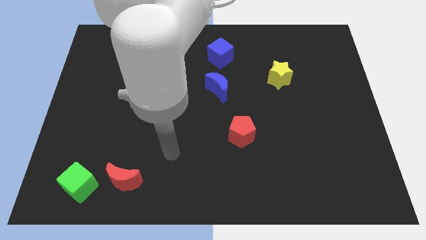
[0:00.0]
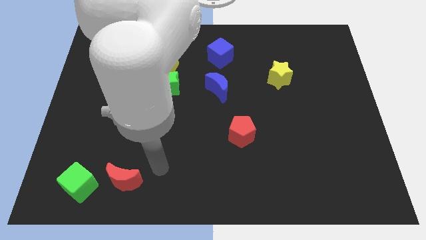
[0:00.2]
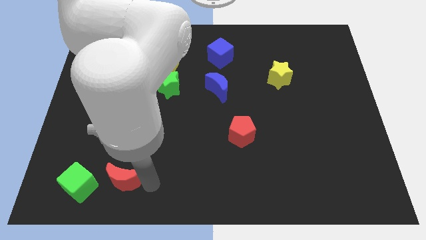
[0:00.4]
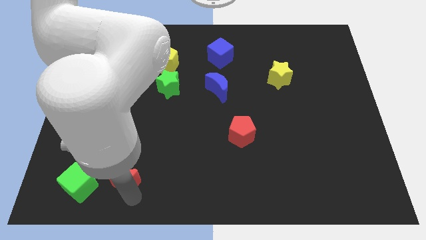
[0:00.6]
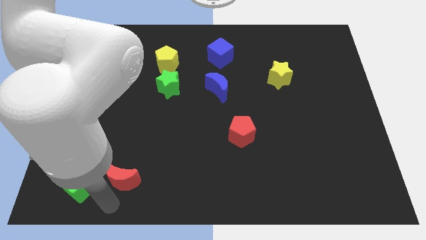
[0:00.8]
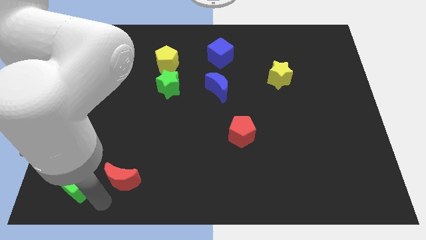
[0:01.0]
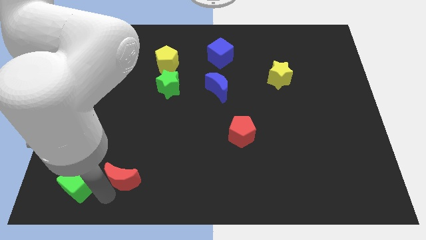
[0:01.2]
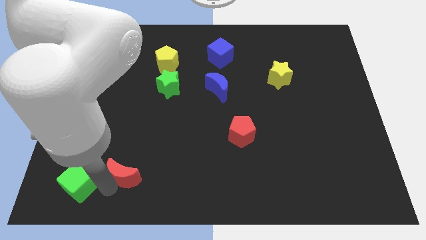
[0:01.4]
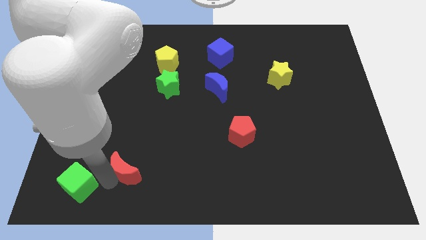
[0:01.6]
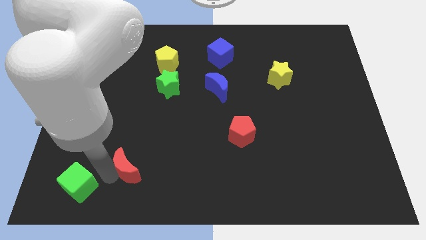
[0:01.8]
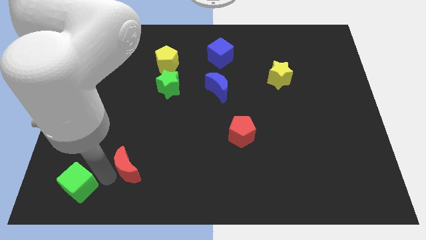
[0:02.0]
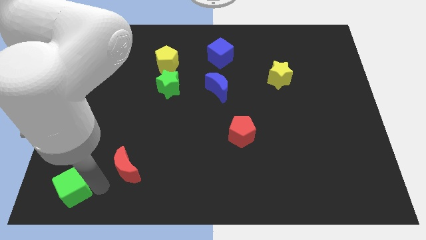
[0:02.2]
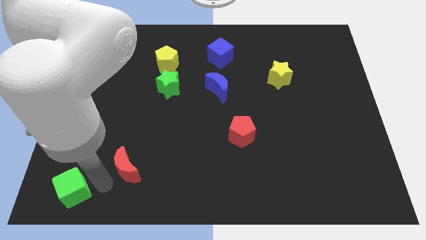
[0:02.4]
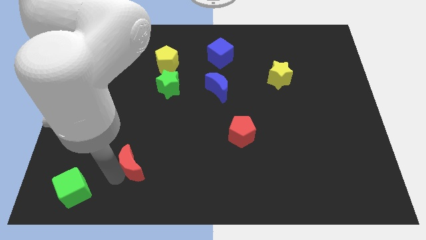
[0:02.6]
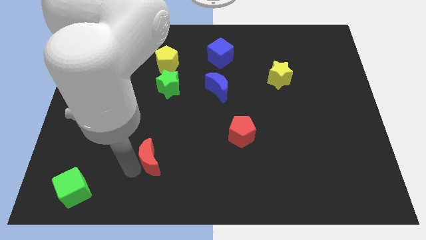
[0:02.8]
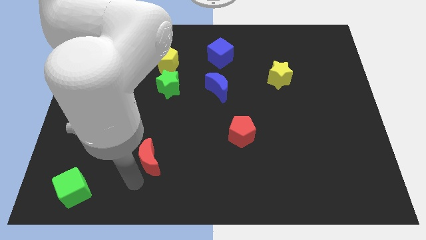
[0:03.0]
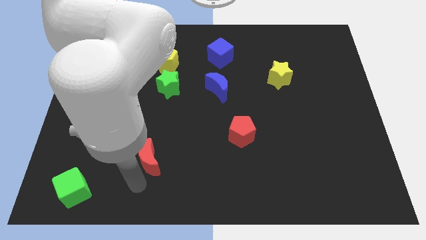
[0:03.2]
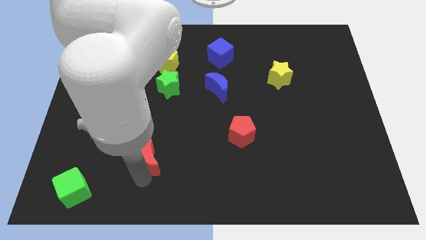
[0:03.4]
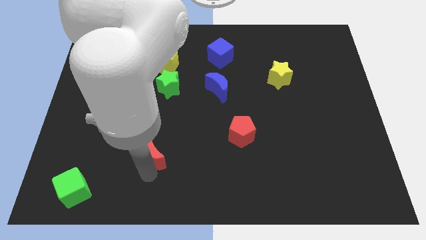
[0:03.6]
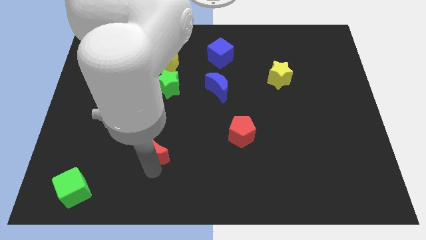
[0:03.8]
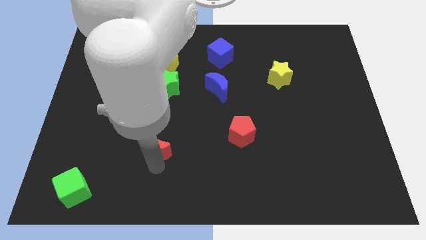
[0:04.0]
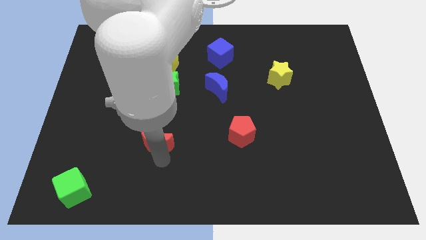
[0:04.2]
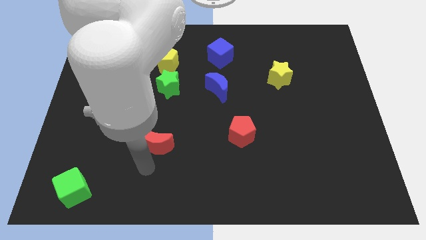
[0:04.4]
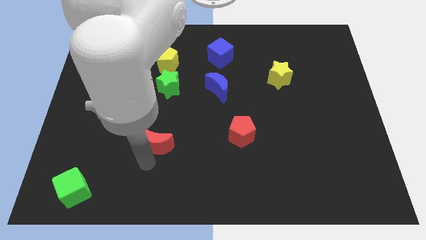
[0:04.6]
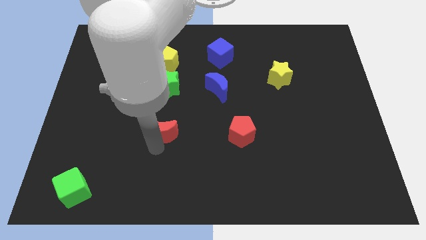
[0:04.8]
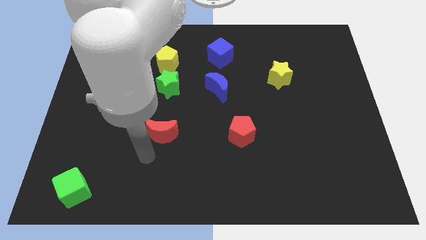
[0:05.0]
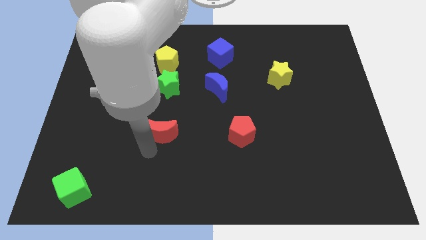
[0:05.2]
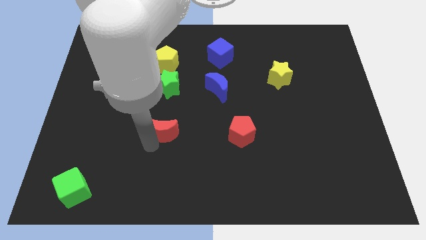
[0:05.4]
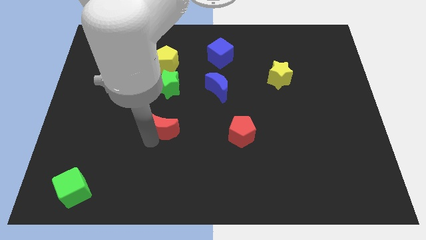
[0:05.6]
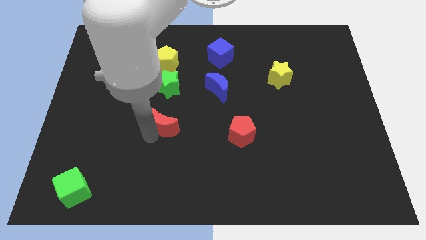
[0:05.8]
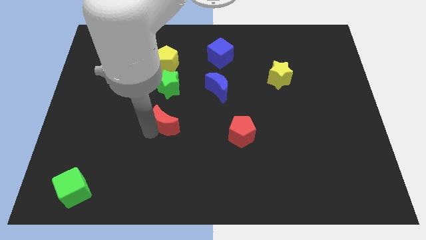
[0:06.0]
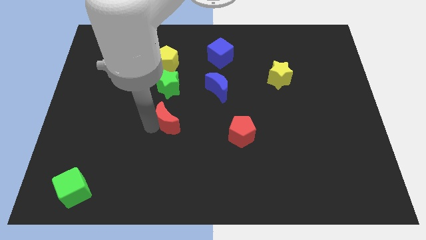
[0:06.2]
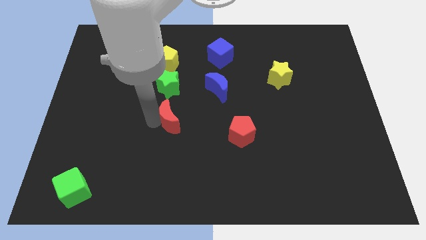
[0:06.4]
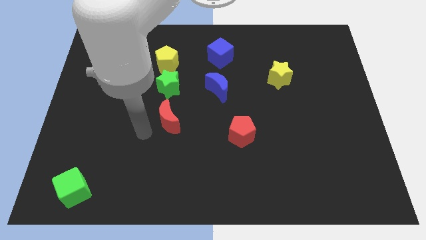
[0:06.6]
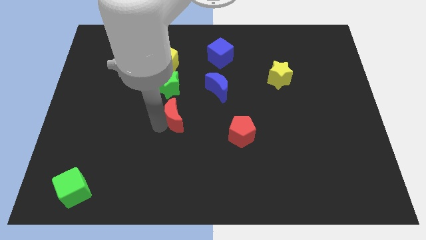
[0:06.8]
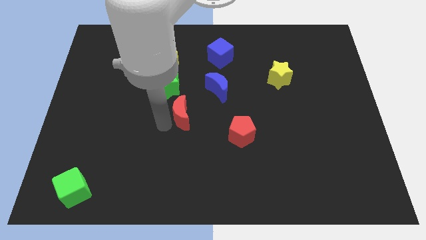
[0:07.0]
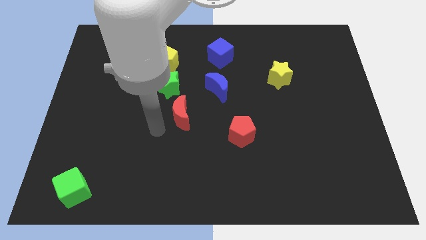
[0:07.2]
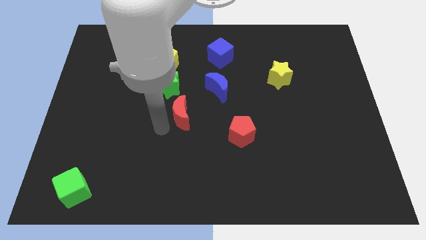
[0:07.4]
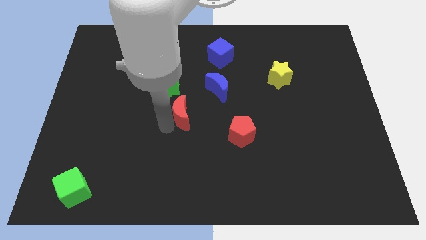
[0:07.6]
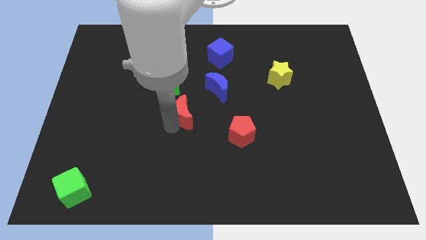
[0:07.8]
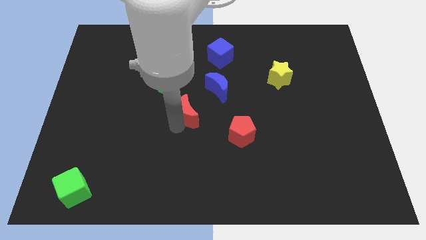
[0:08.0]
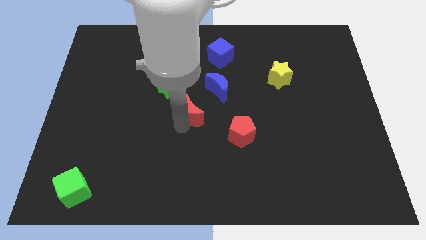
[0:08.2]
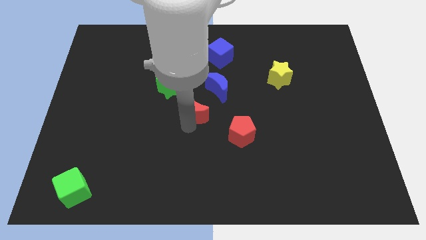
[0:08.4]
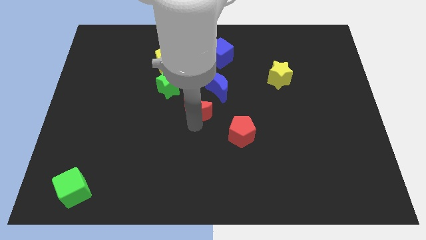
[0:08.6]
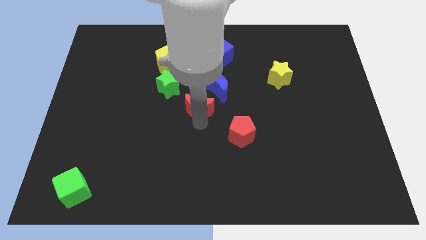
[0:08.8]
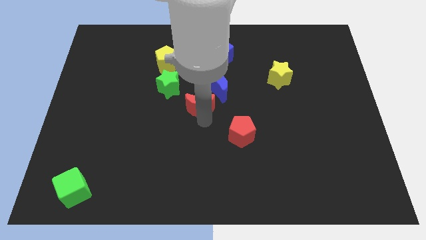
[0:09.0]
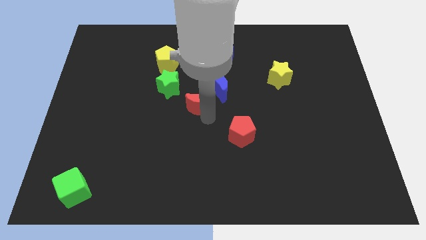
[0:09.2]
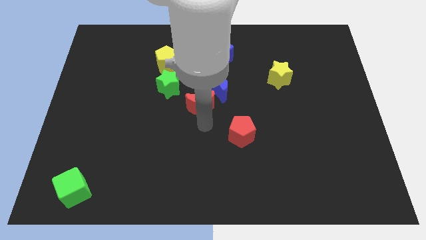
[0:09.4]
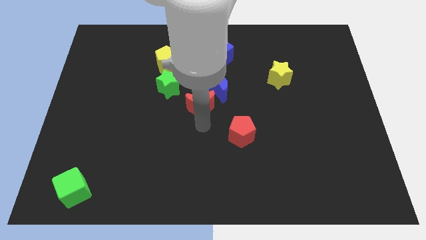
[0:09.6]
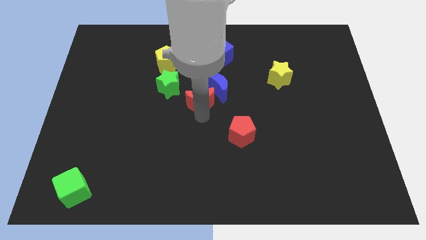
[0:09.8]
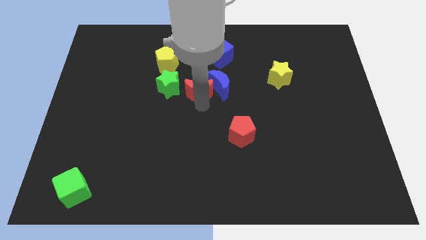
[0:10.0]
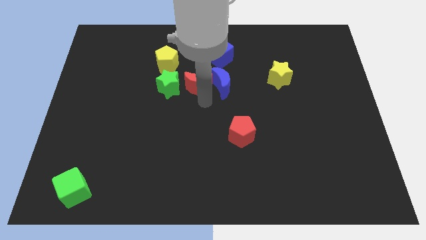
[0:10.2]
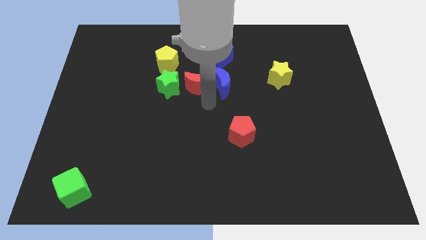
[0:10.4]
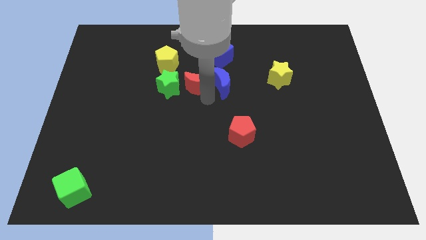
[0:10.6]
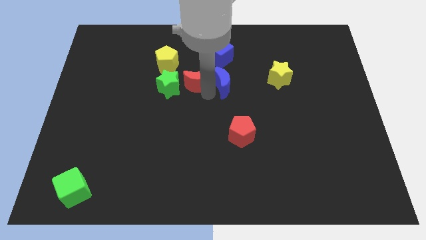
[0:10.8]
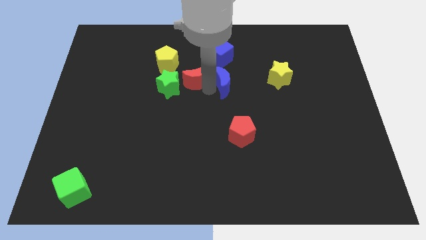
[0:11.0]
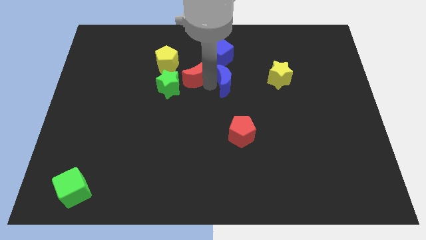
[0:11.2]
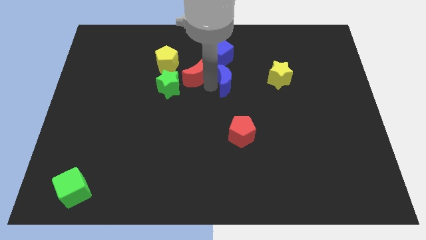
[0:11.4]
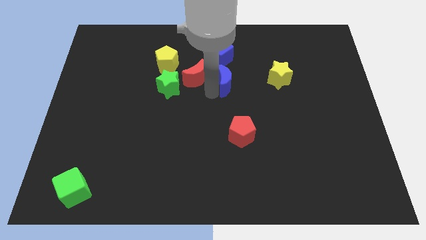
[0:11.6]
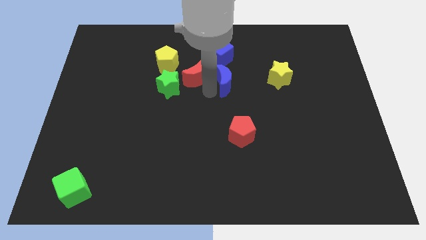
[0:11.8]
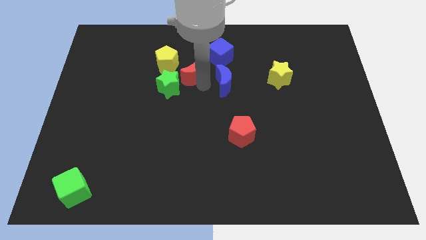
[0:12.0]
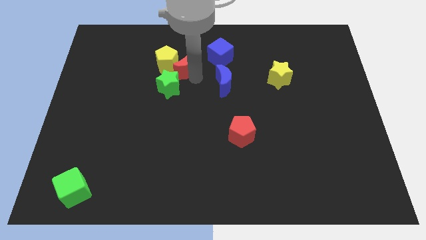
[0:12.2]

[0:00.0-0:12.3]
put the red moon to the left side of the blue cube

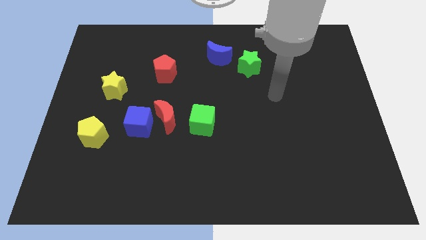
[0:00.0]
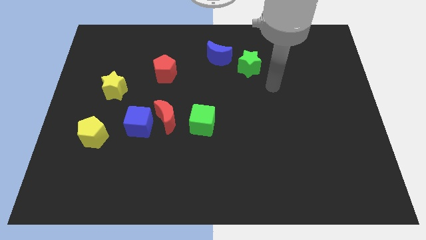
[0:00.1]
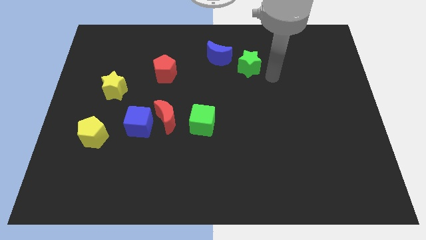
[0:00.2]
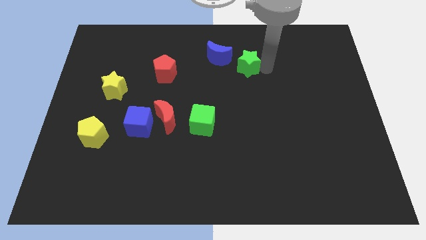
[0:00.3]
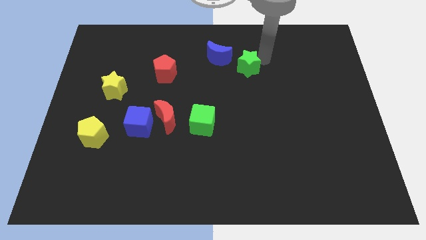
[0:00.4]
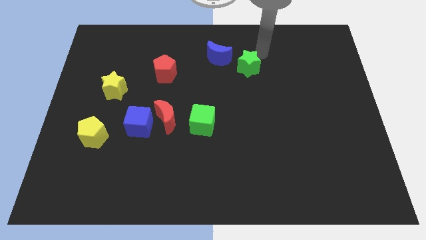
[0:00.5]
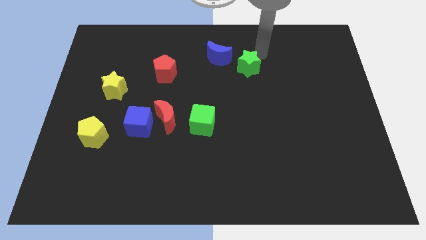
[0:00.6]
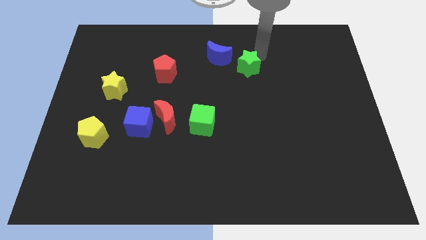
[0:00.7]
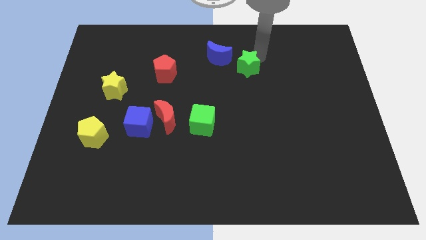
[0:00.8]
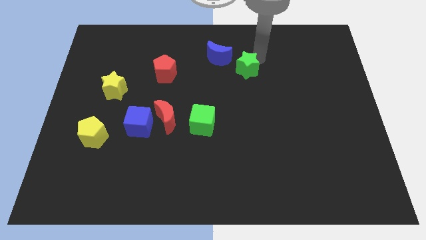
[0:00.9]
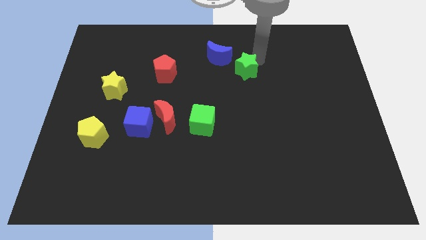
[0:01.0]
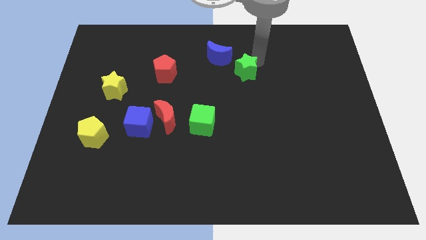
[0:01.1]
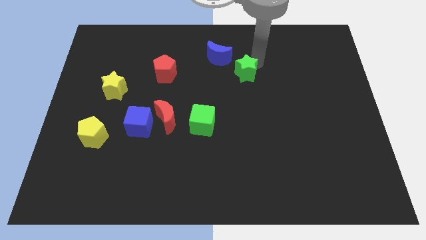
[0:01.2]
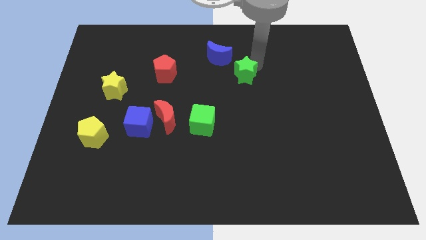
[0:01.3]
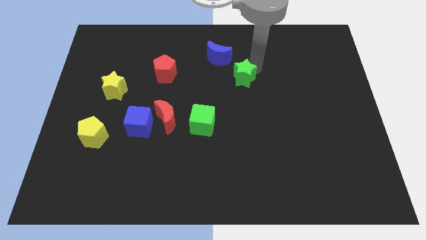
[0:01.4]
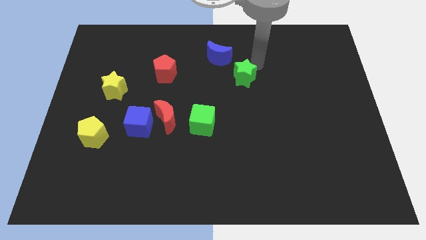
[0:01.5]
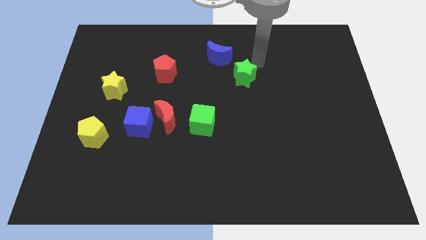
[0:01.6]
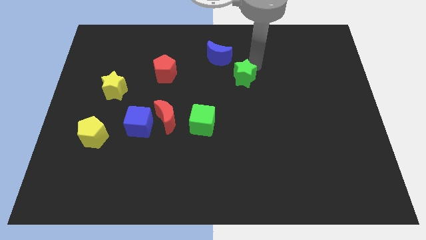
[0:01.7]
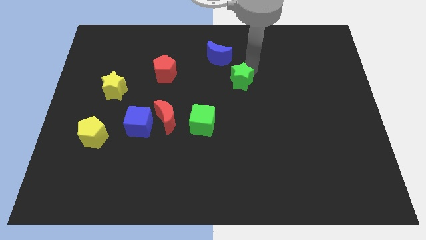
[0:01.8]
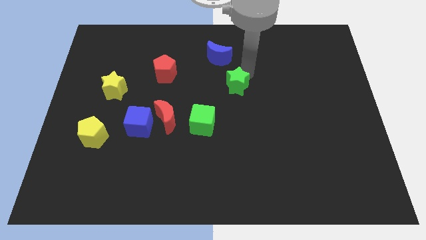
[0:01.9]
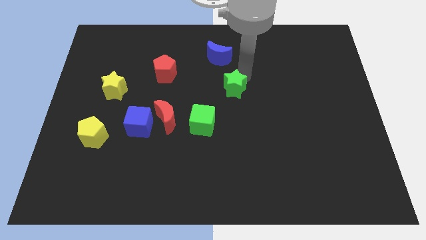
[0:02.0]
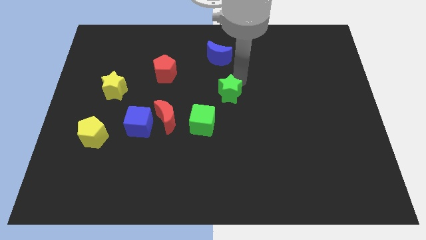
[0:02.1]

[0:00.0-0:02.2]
move the green star to the top right side of the green cube
